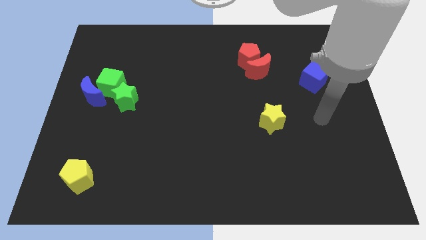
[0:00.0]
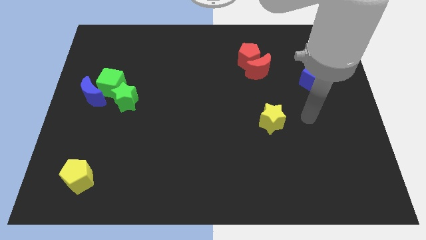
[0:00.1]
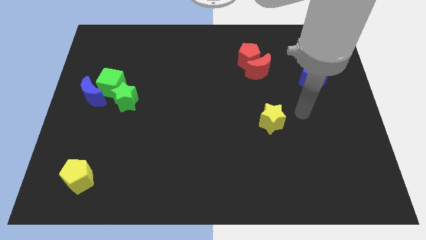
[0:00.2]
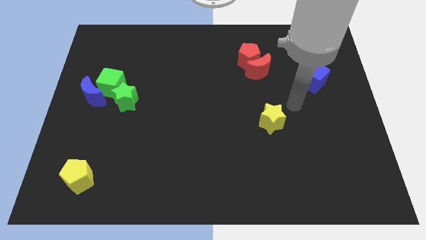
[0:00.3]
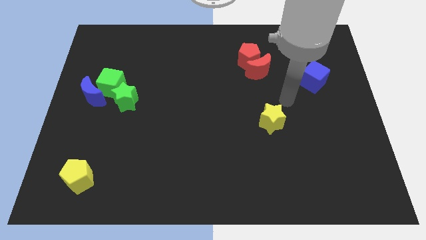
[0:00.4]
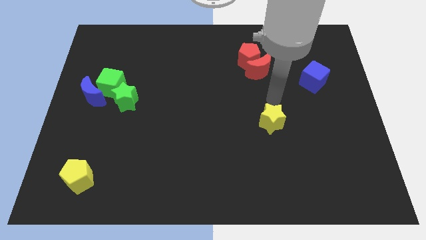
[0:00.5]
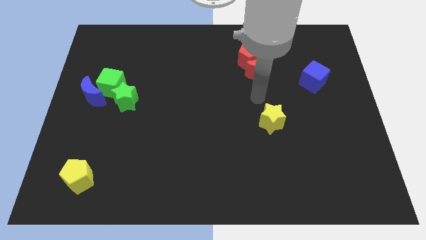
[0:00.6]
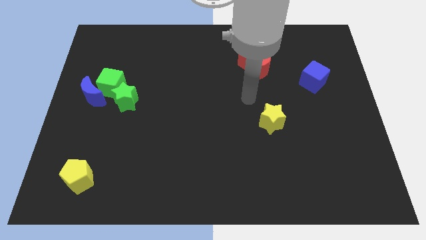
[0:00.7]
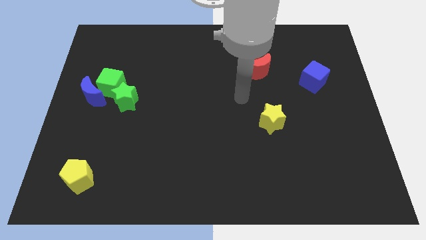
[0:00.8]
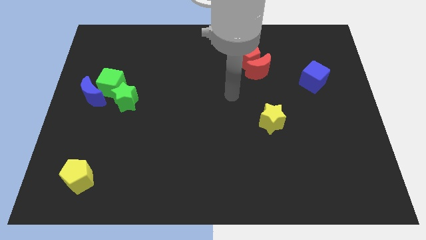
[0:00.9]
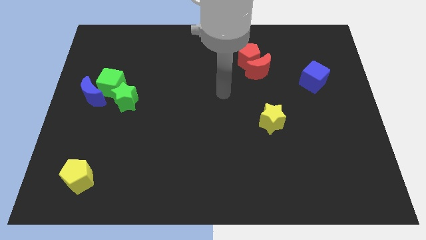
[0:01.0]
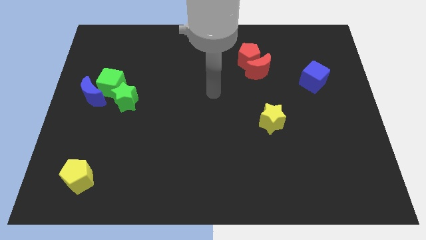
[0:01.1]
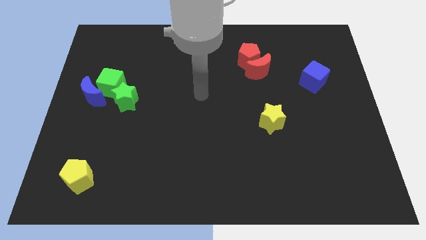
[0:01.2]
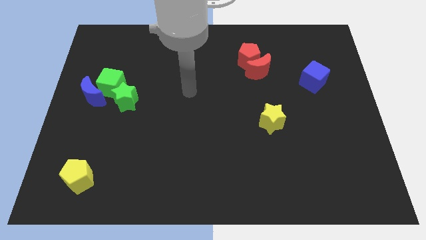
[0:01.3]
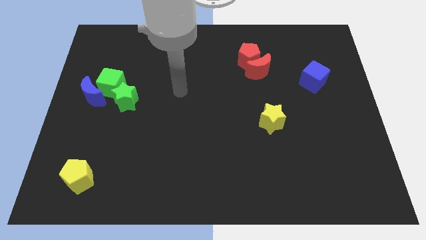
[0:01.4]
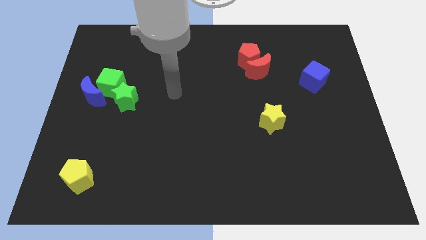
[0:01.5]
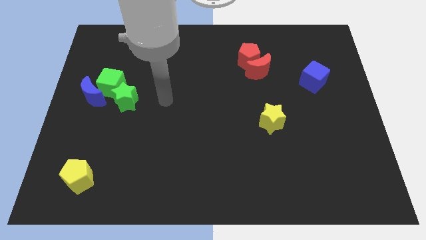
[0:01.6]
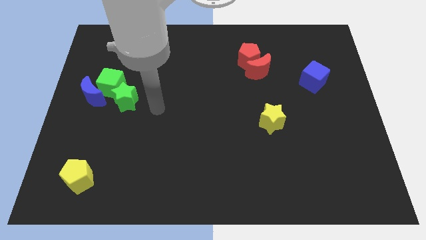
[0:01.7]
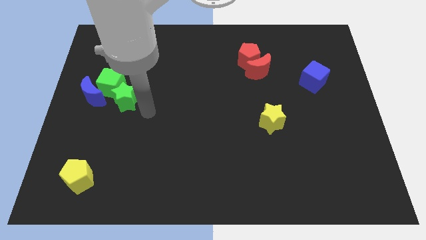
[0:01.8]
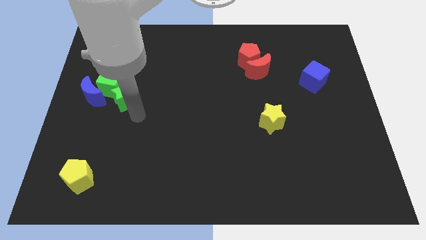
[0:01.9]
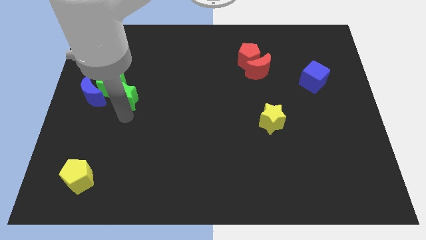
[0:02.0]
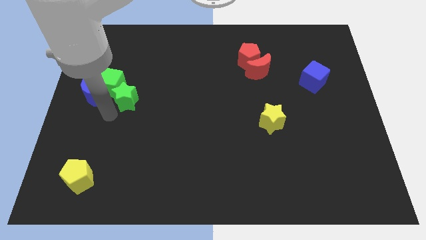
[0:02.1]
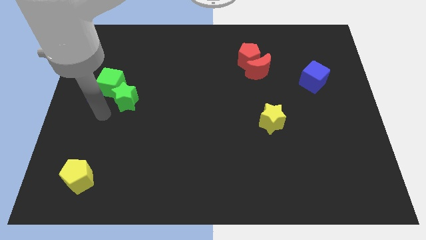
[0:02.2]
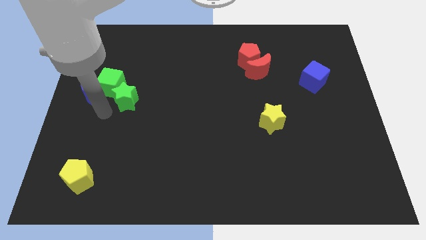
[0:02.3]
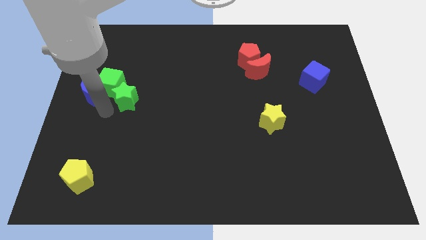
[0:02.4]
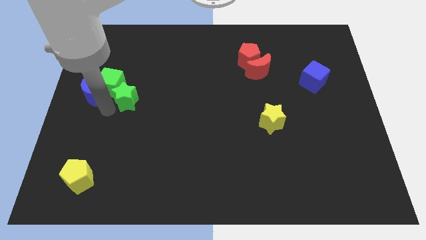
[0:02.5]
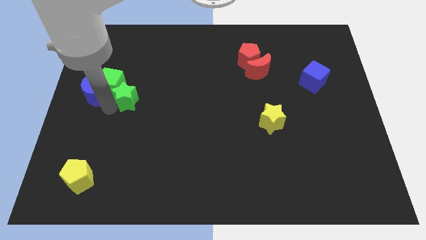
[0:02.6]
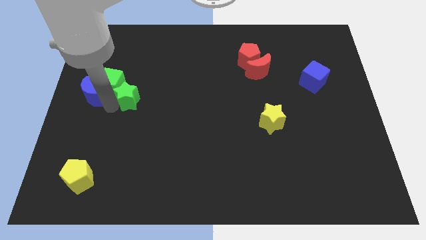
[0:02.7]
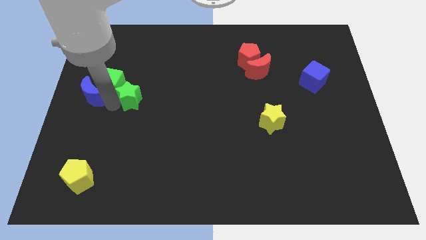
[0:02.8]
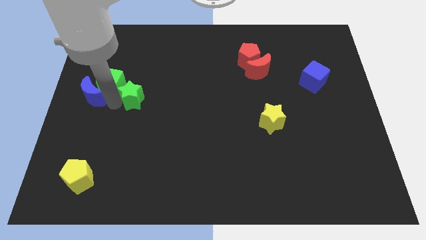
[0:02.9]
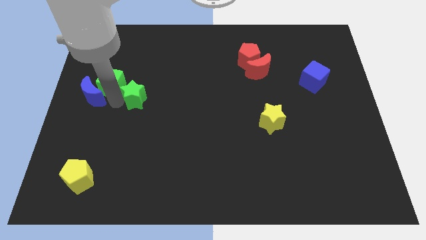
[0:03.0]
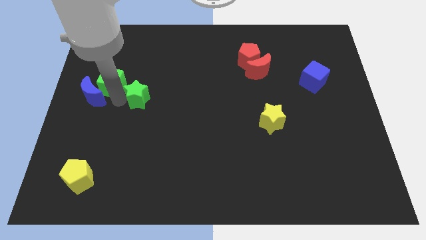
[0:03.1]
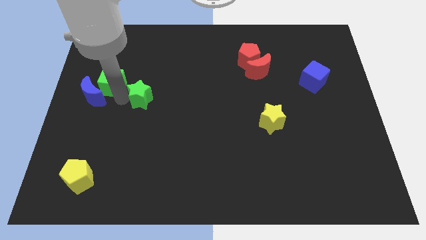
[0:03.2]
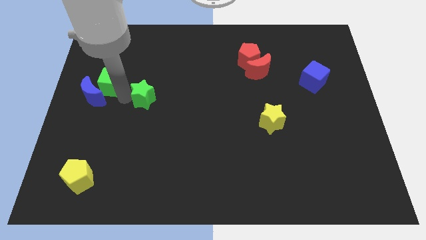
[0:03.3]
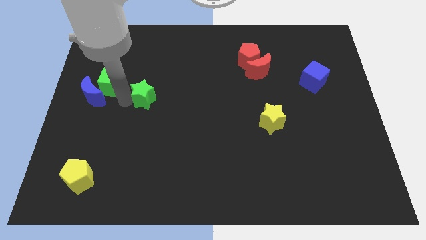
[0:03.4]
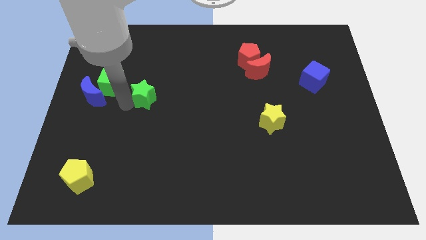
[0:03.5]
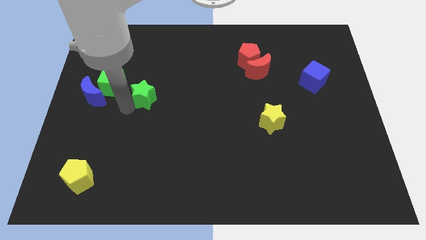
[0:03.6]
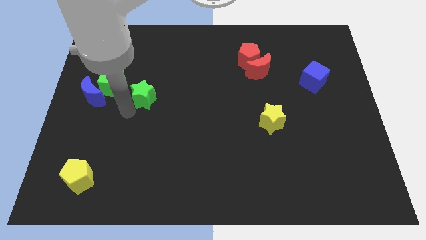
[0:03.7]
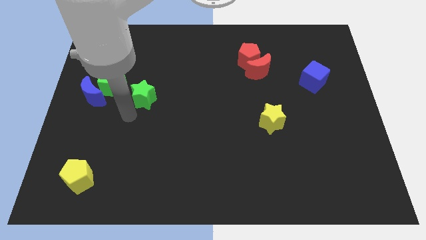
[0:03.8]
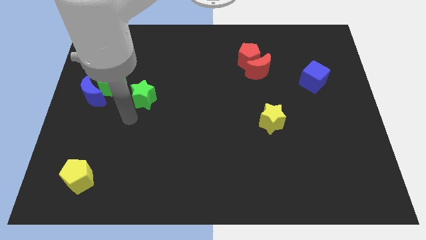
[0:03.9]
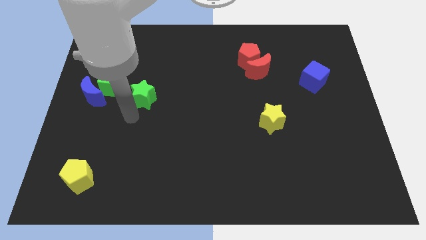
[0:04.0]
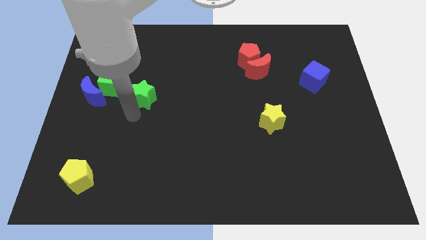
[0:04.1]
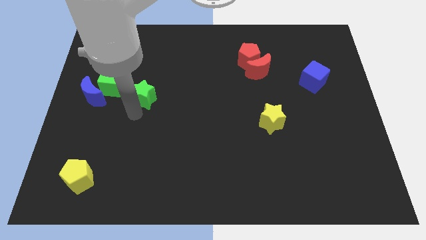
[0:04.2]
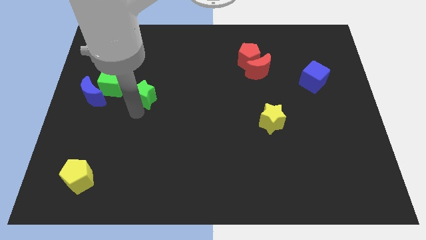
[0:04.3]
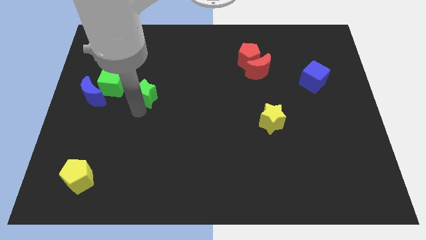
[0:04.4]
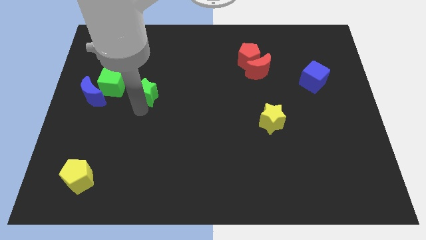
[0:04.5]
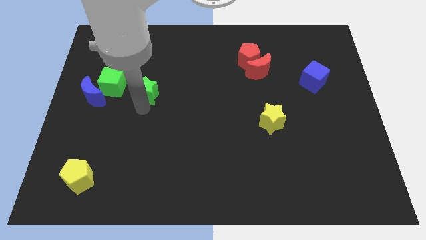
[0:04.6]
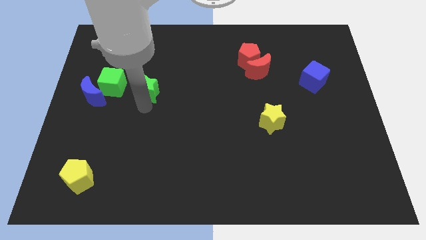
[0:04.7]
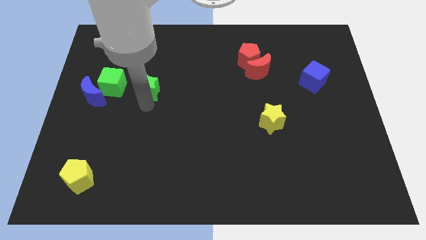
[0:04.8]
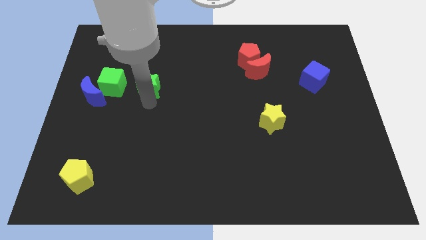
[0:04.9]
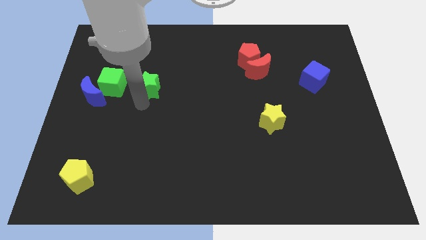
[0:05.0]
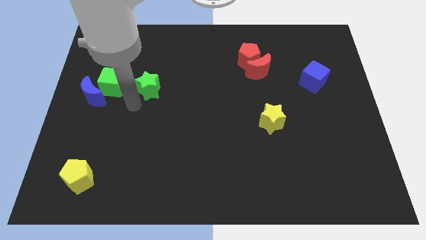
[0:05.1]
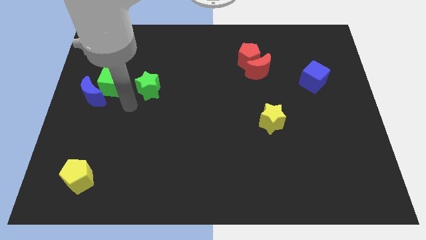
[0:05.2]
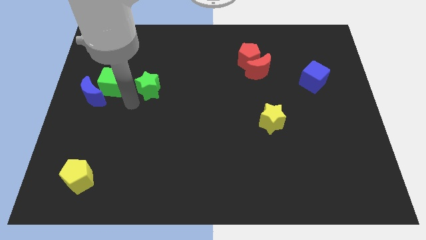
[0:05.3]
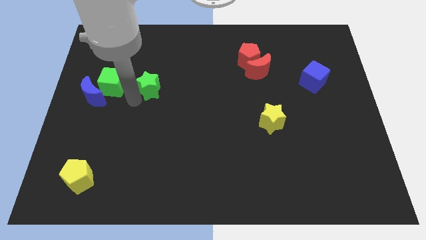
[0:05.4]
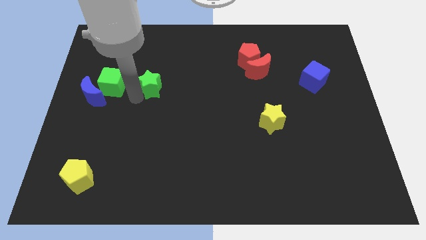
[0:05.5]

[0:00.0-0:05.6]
slightly push the green star upwards and then to the right

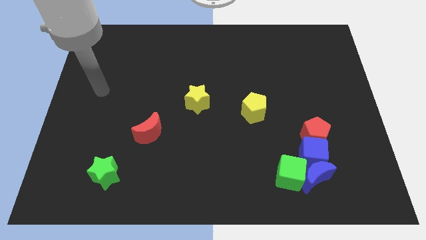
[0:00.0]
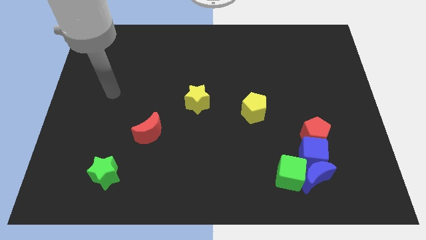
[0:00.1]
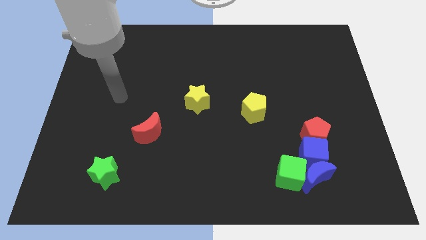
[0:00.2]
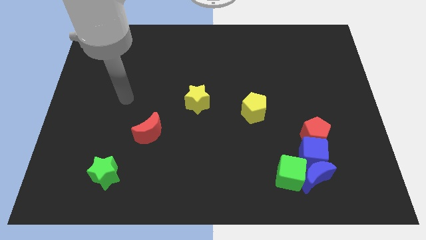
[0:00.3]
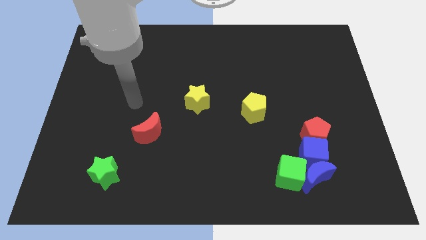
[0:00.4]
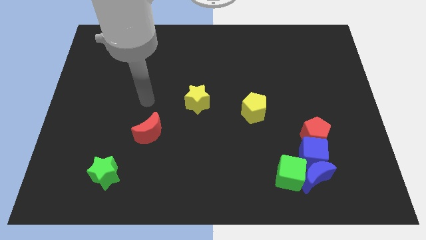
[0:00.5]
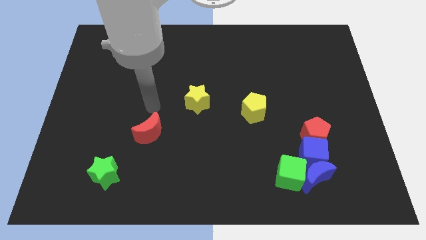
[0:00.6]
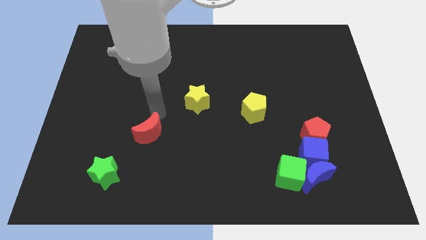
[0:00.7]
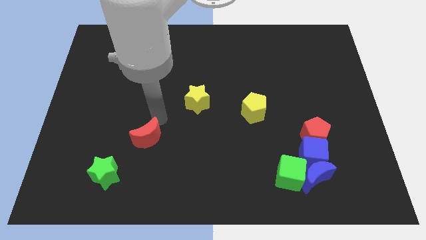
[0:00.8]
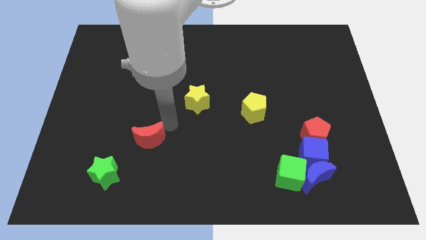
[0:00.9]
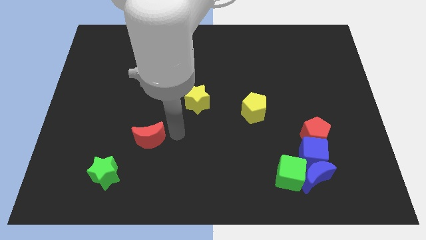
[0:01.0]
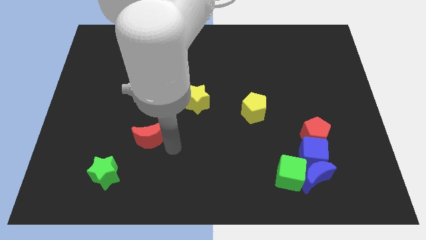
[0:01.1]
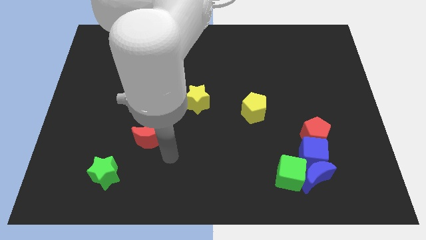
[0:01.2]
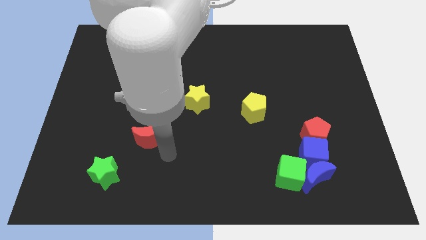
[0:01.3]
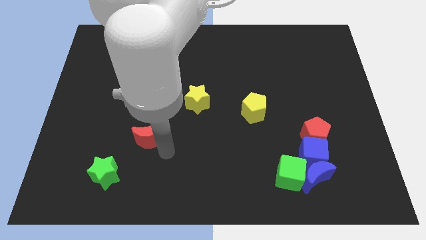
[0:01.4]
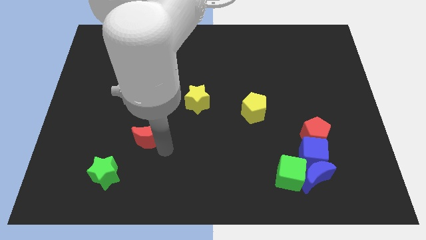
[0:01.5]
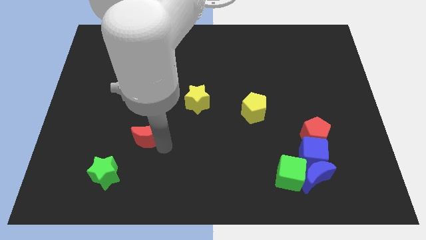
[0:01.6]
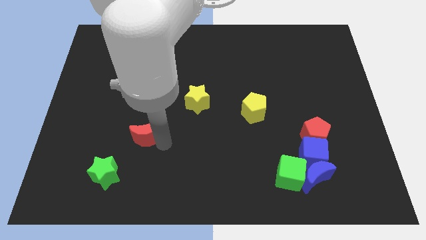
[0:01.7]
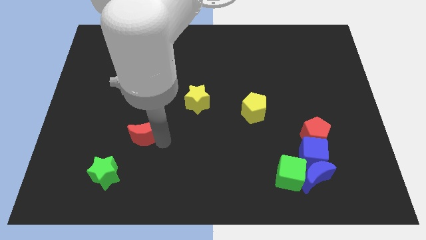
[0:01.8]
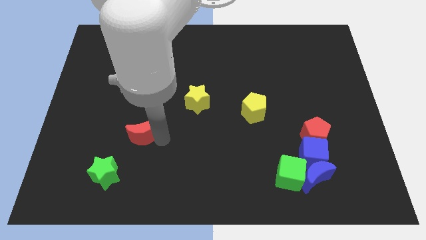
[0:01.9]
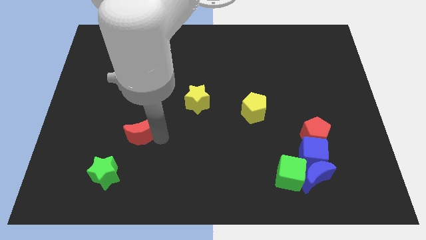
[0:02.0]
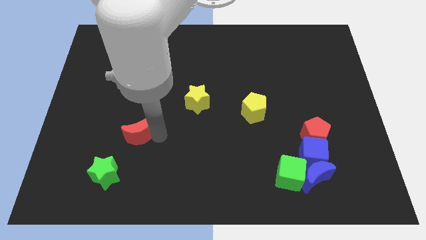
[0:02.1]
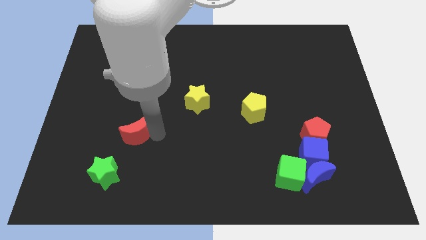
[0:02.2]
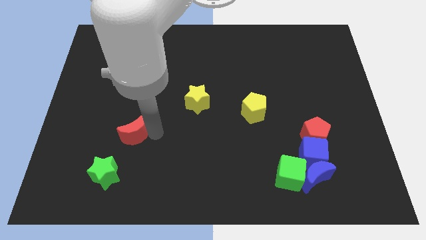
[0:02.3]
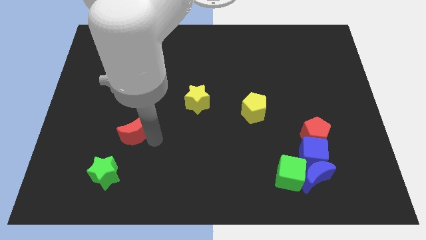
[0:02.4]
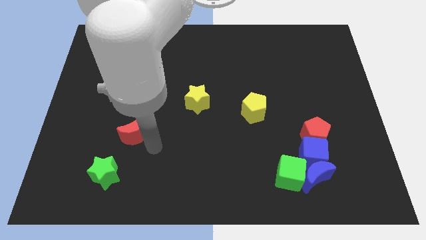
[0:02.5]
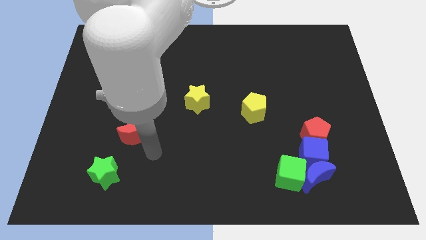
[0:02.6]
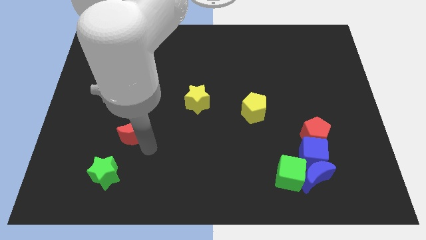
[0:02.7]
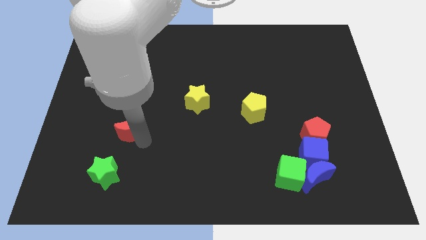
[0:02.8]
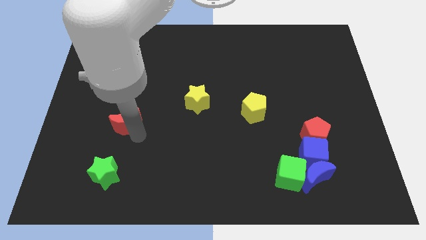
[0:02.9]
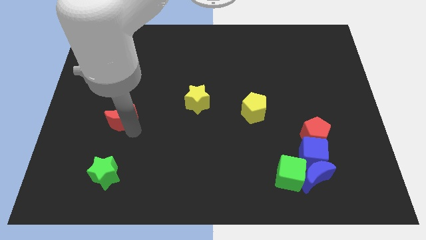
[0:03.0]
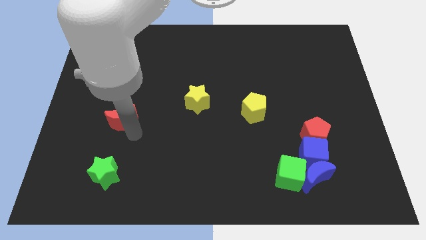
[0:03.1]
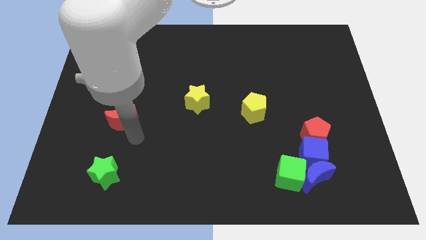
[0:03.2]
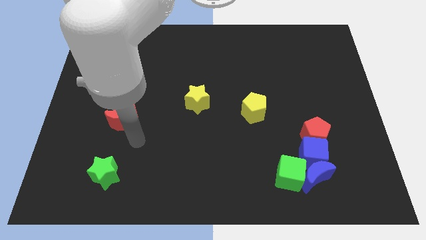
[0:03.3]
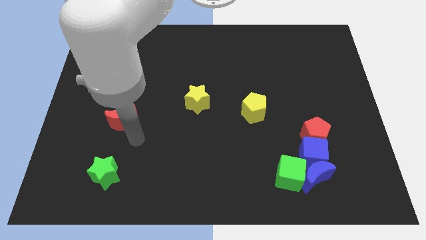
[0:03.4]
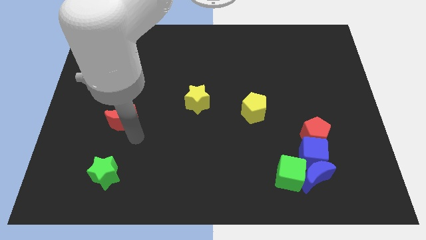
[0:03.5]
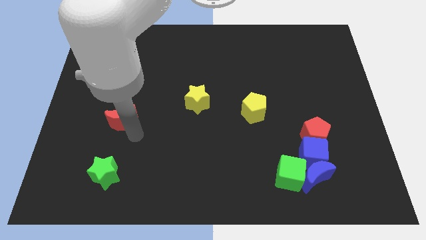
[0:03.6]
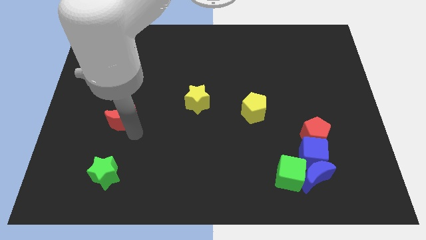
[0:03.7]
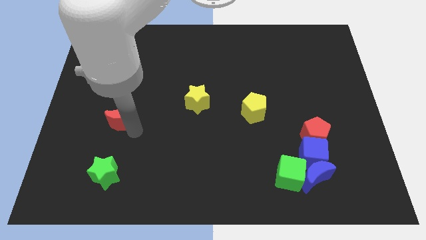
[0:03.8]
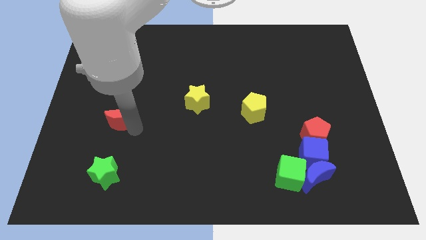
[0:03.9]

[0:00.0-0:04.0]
move the red moon a bit upwards and to the left
